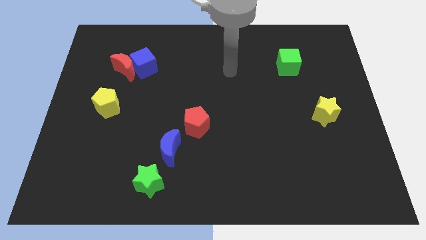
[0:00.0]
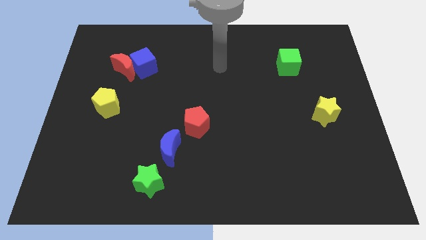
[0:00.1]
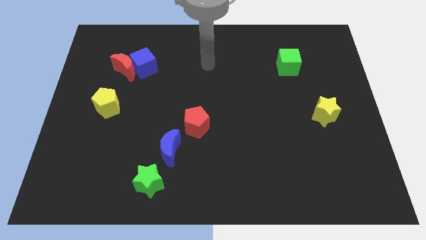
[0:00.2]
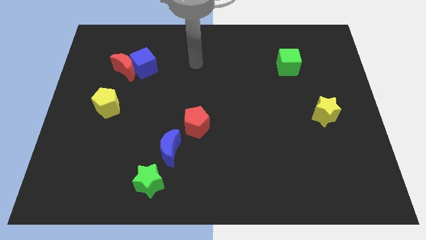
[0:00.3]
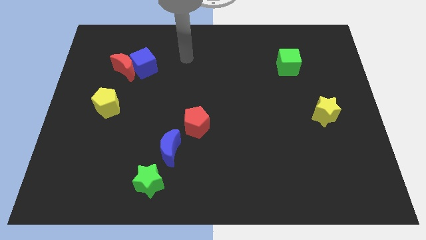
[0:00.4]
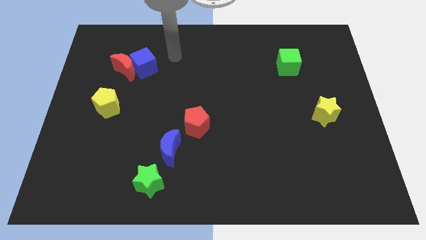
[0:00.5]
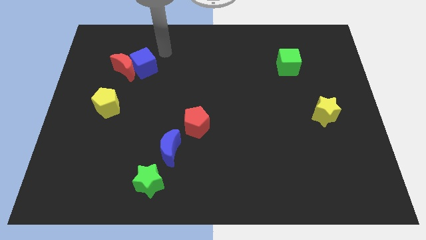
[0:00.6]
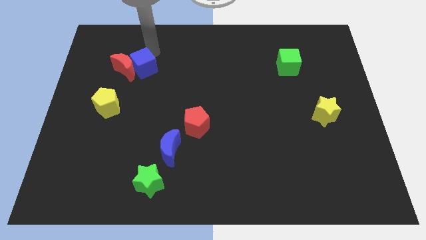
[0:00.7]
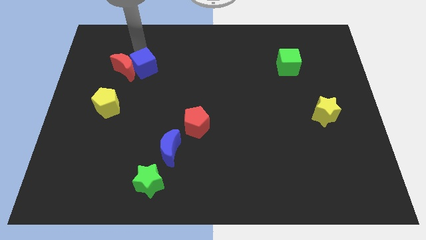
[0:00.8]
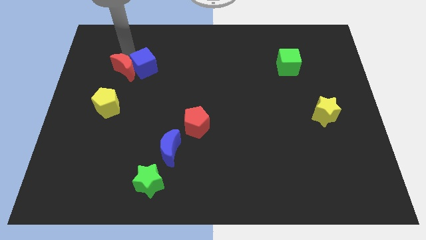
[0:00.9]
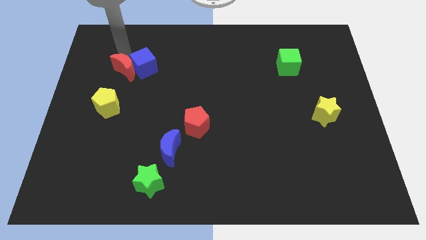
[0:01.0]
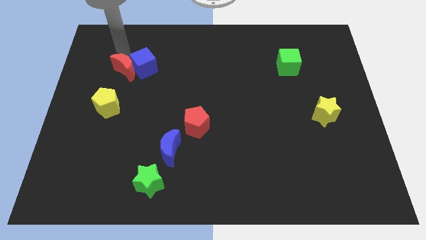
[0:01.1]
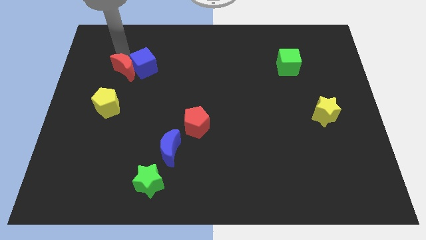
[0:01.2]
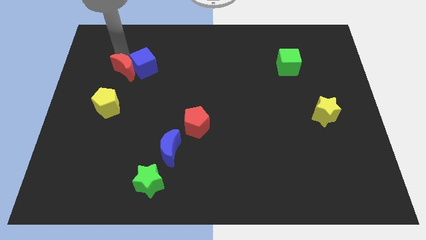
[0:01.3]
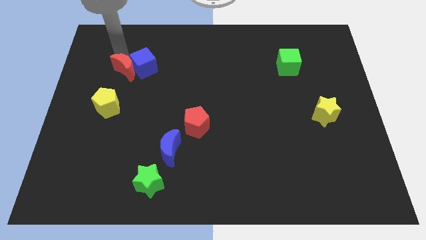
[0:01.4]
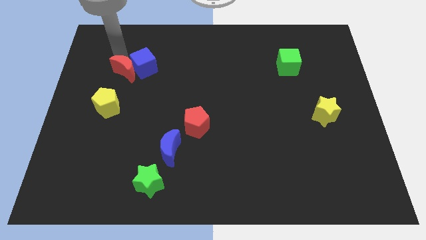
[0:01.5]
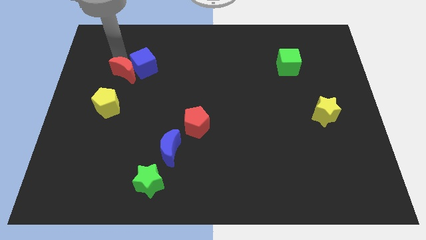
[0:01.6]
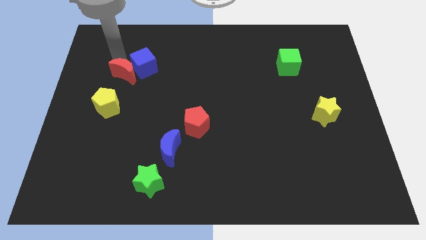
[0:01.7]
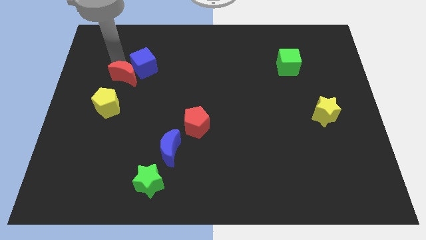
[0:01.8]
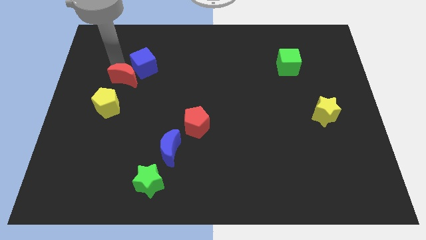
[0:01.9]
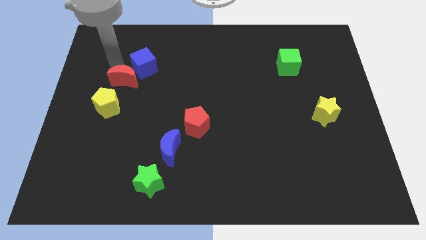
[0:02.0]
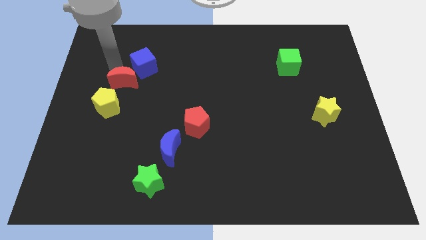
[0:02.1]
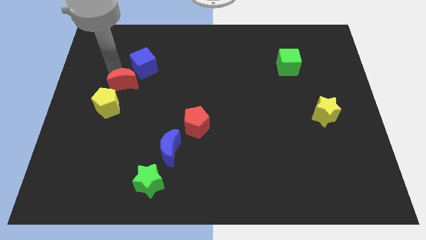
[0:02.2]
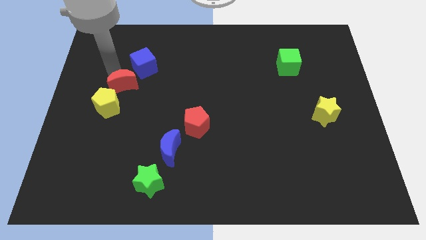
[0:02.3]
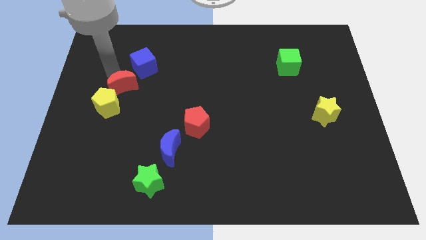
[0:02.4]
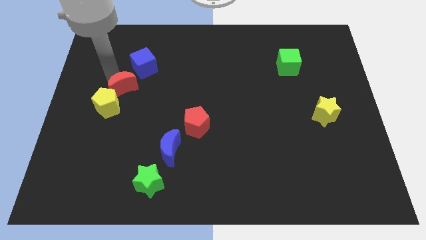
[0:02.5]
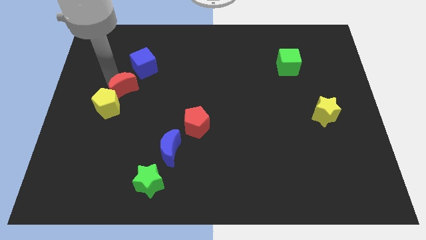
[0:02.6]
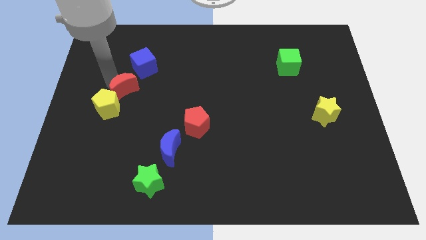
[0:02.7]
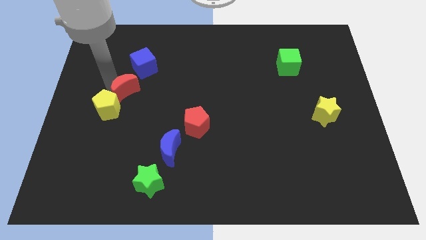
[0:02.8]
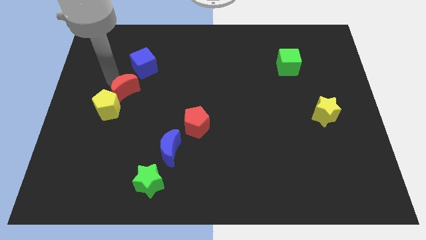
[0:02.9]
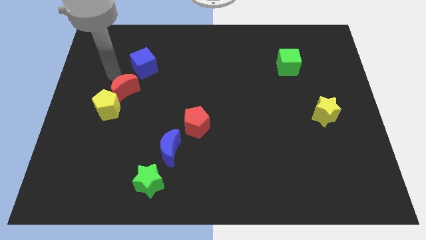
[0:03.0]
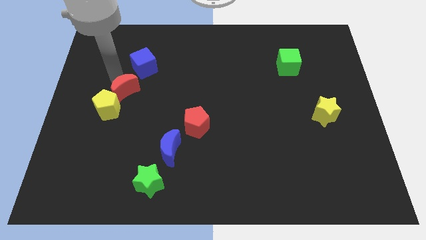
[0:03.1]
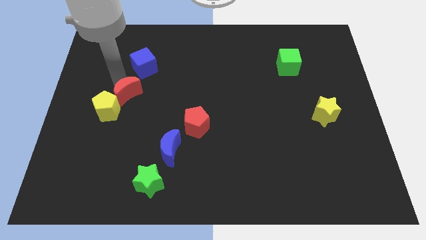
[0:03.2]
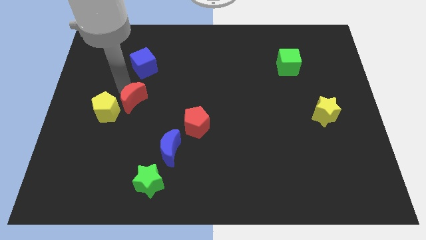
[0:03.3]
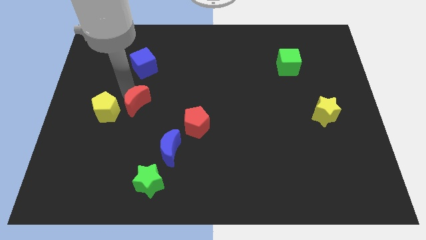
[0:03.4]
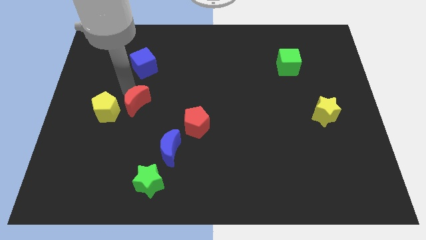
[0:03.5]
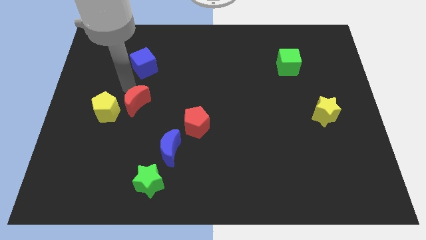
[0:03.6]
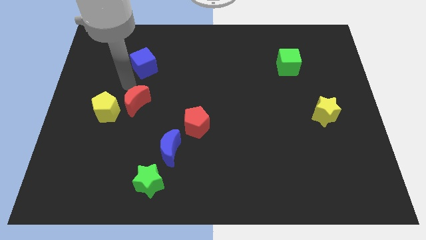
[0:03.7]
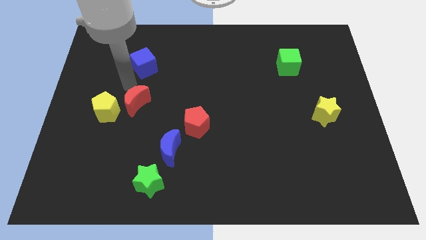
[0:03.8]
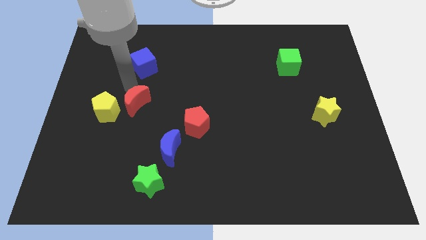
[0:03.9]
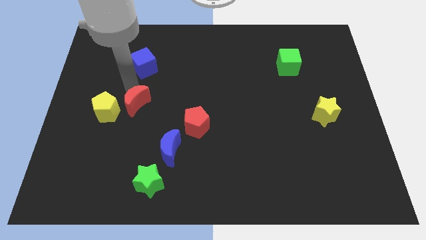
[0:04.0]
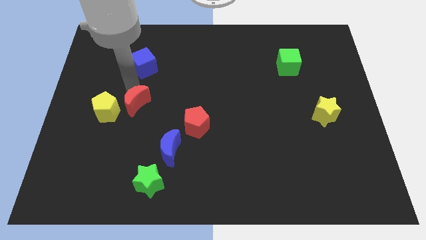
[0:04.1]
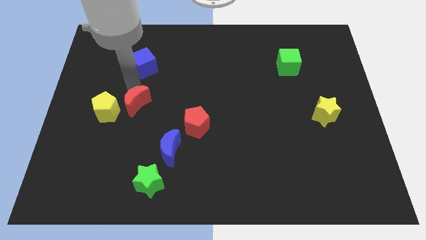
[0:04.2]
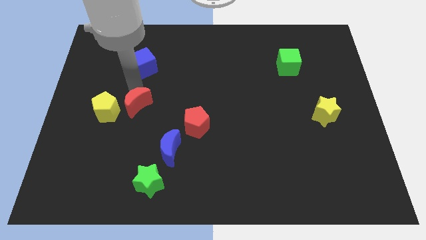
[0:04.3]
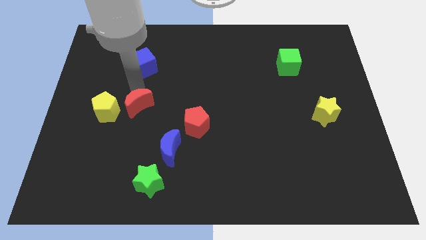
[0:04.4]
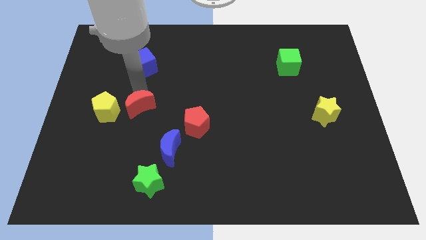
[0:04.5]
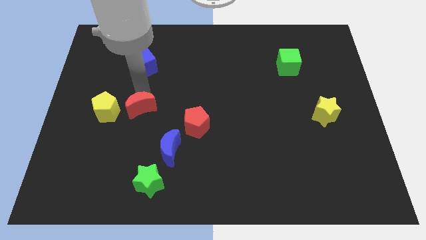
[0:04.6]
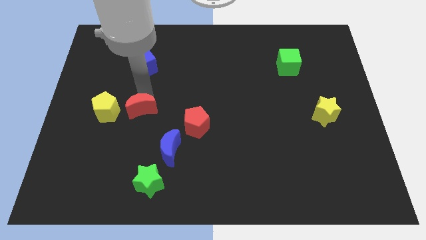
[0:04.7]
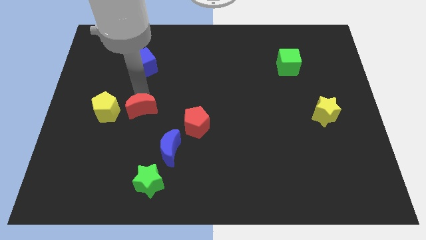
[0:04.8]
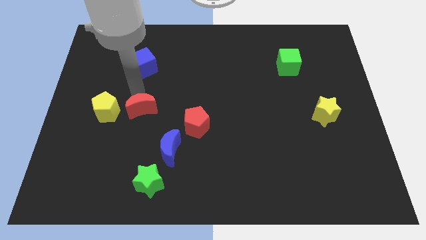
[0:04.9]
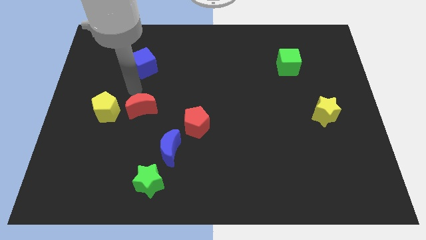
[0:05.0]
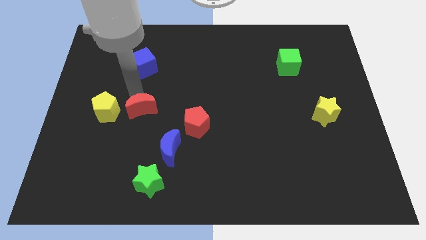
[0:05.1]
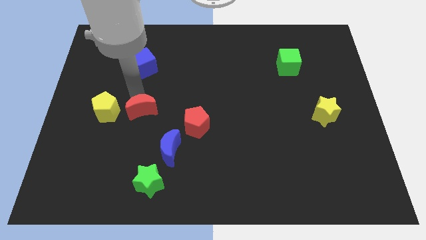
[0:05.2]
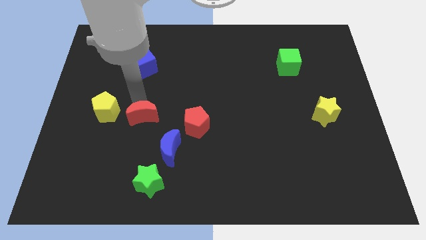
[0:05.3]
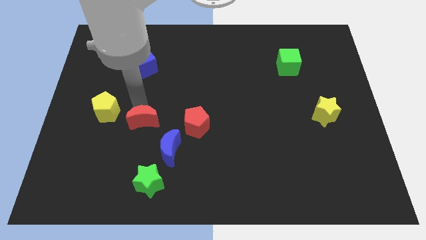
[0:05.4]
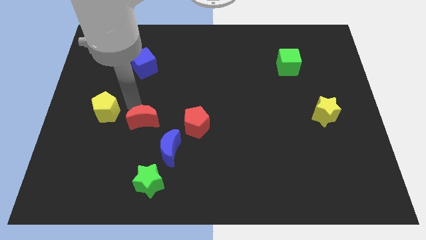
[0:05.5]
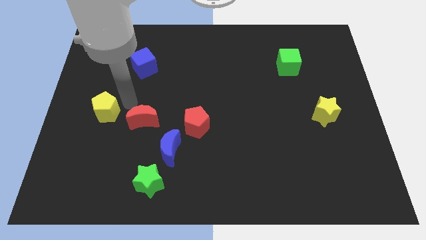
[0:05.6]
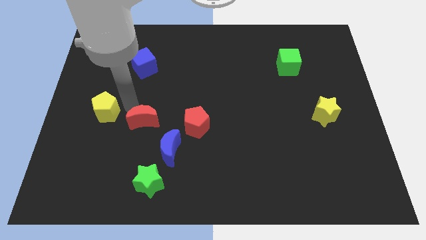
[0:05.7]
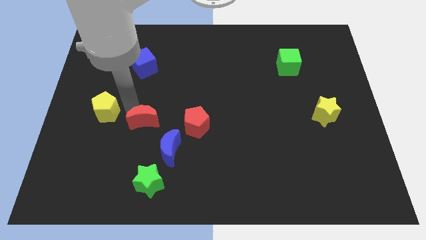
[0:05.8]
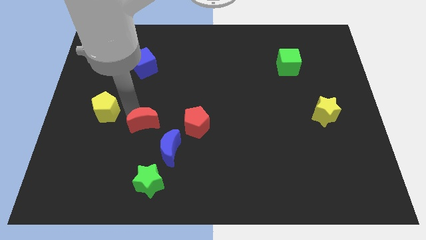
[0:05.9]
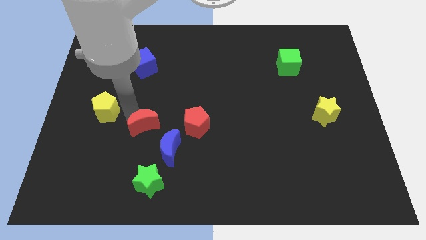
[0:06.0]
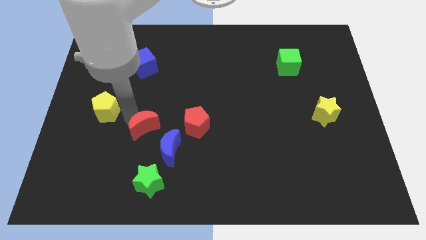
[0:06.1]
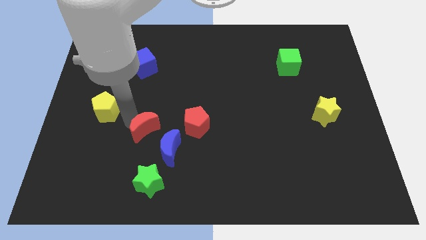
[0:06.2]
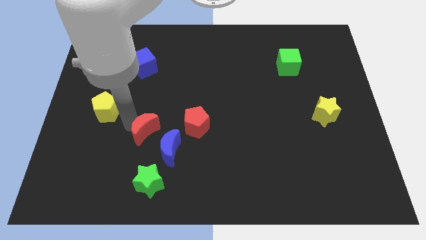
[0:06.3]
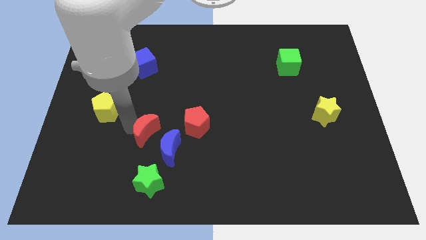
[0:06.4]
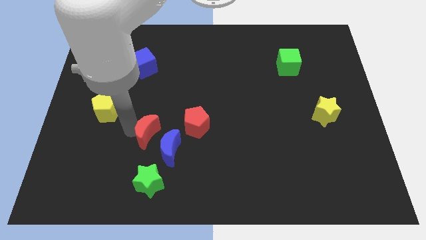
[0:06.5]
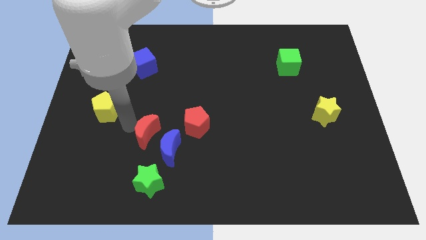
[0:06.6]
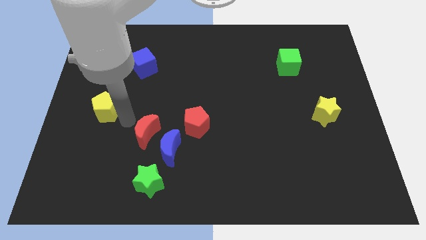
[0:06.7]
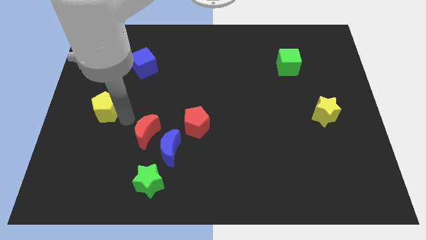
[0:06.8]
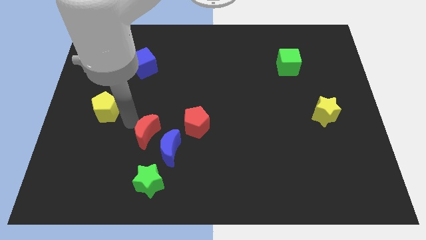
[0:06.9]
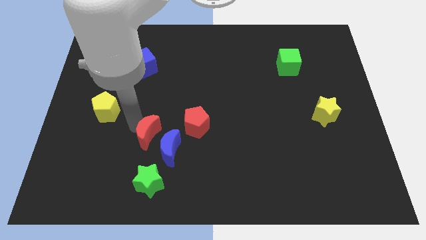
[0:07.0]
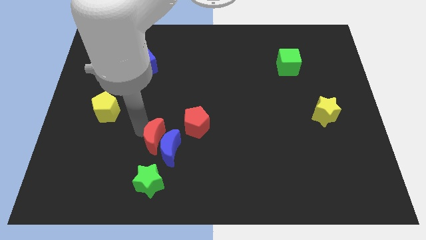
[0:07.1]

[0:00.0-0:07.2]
put the red moon close to the blue moon
